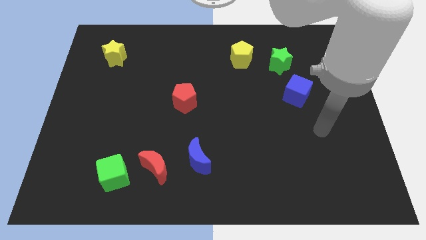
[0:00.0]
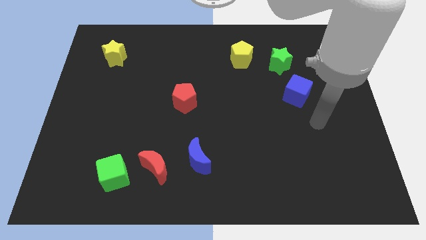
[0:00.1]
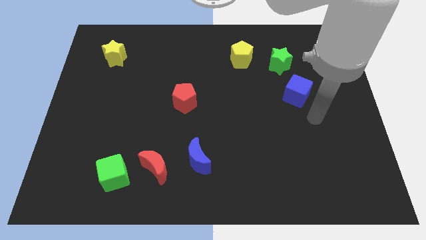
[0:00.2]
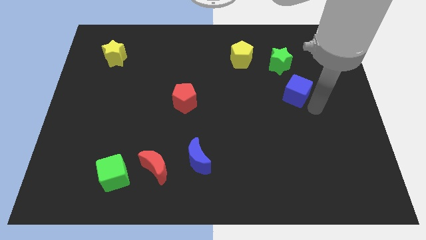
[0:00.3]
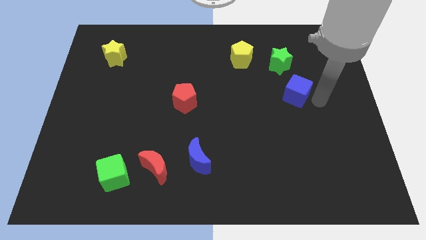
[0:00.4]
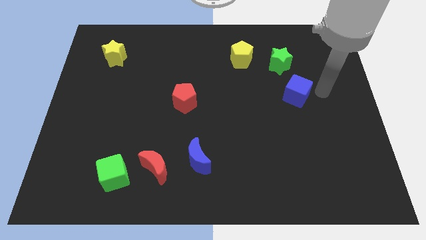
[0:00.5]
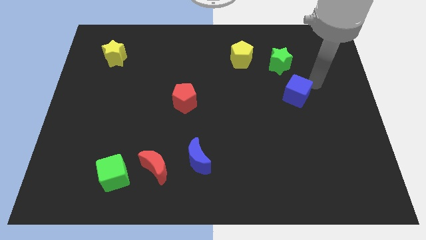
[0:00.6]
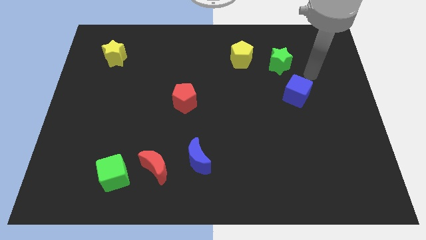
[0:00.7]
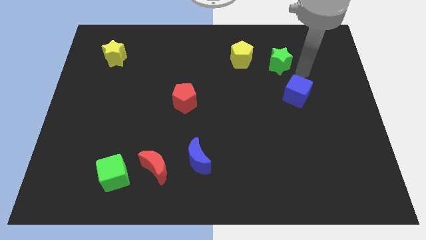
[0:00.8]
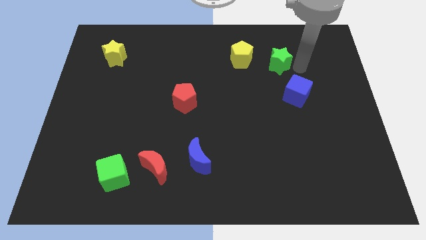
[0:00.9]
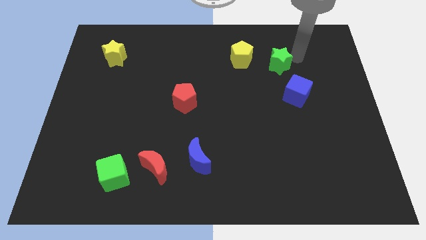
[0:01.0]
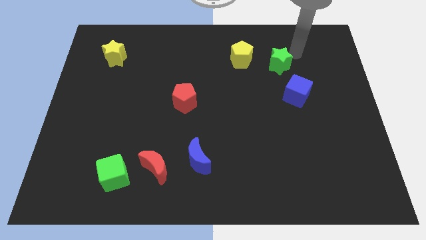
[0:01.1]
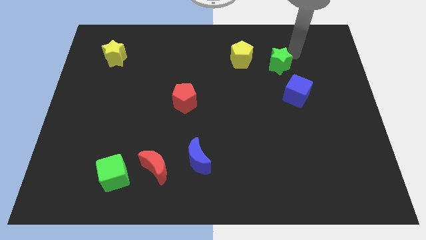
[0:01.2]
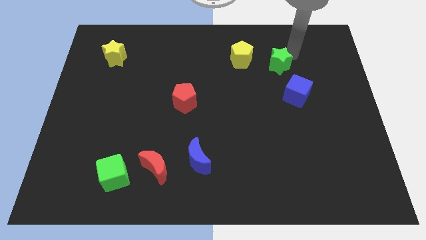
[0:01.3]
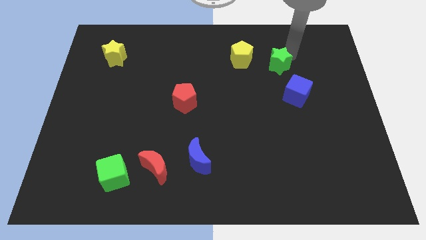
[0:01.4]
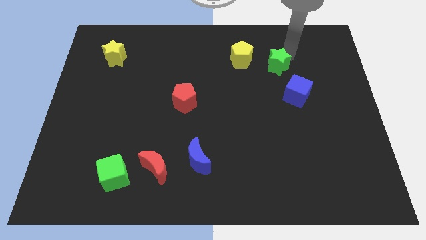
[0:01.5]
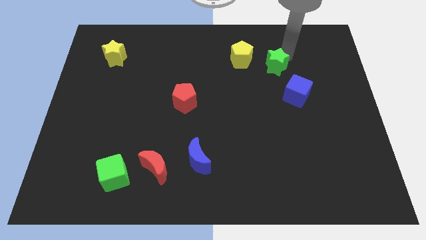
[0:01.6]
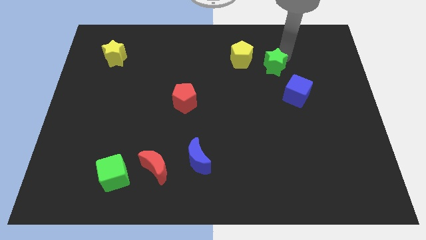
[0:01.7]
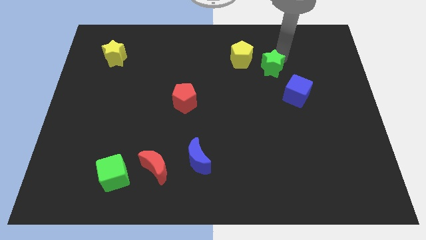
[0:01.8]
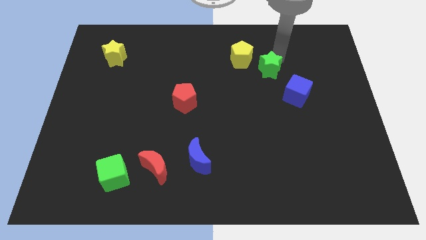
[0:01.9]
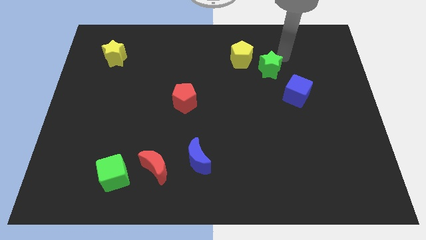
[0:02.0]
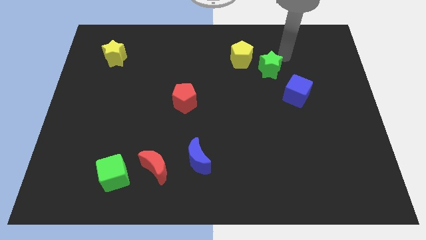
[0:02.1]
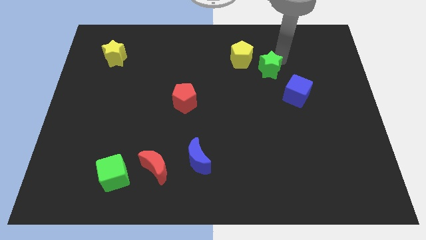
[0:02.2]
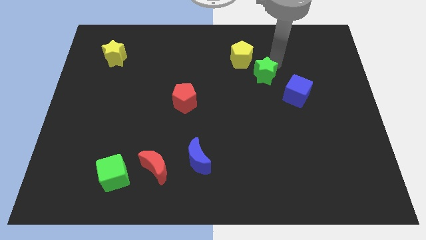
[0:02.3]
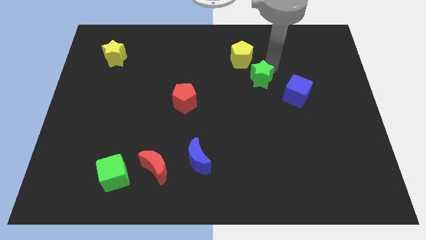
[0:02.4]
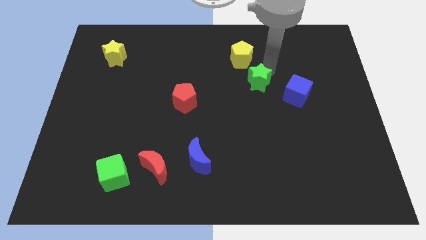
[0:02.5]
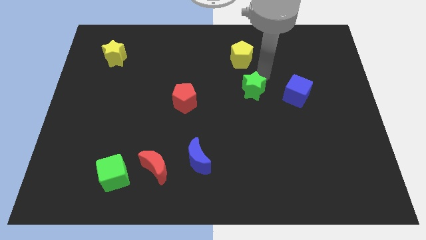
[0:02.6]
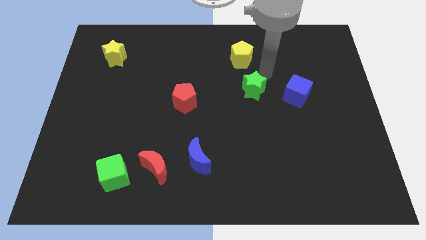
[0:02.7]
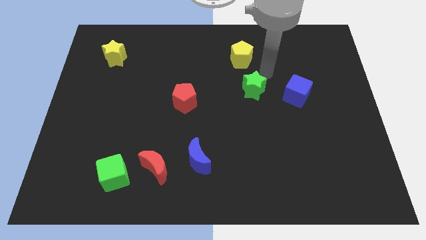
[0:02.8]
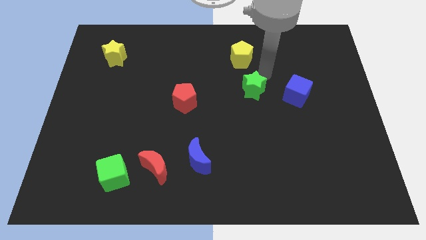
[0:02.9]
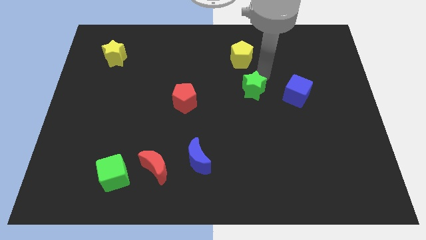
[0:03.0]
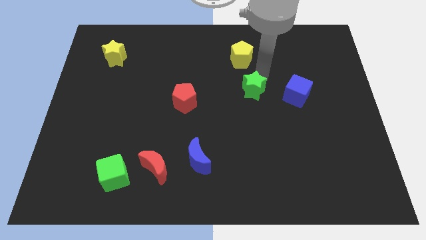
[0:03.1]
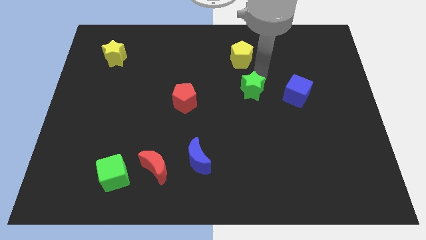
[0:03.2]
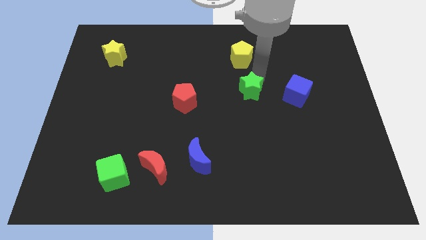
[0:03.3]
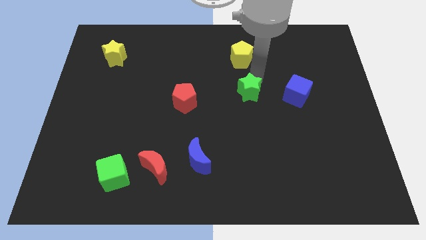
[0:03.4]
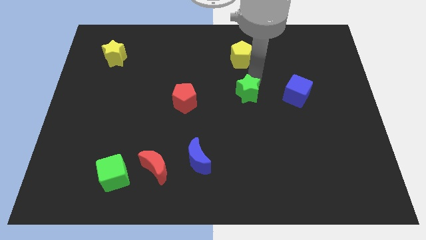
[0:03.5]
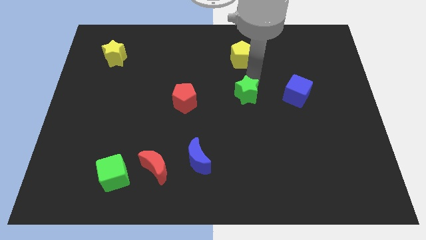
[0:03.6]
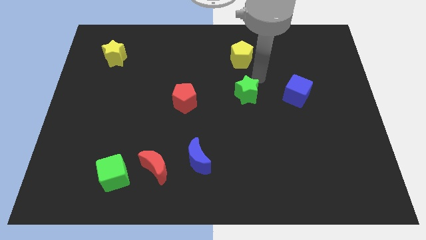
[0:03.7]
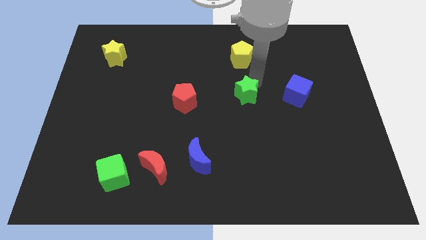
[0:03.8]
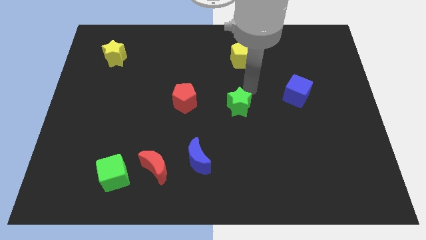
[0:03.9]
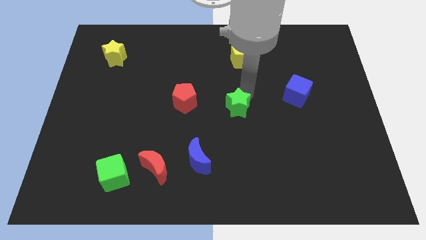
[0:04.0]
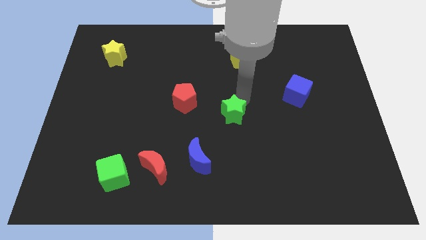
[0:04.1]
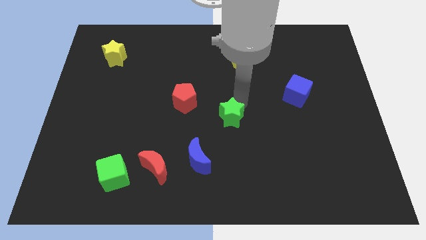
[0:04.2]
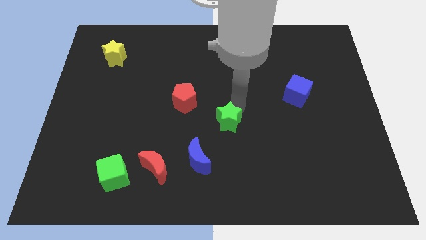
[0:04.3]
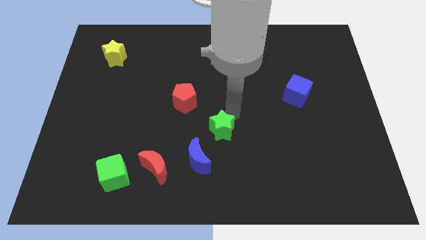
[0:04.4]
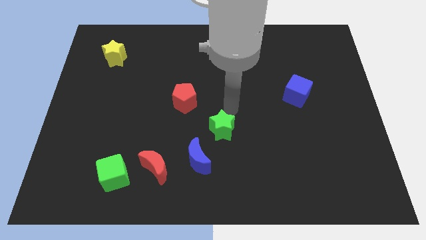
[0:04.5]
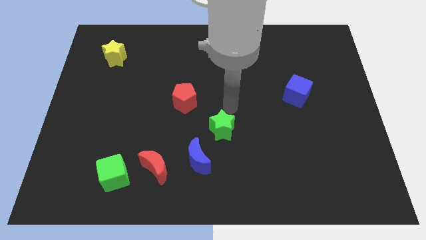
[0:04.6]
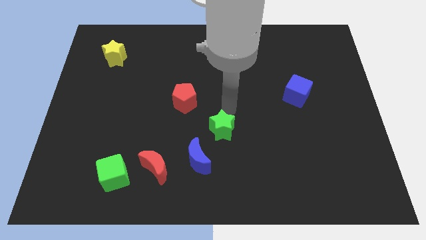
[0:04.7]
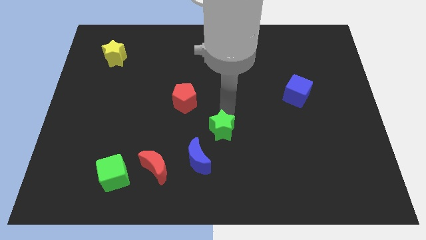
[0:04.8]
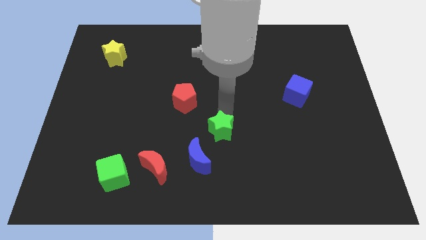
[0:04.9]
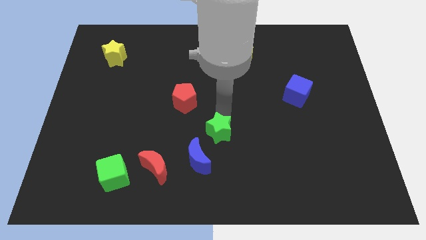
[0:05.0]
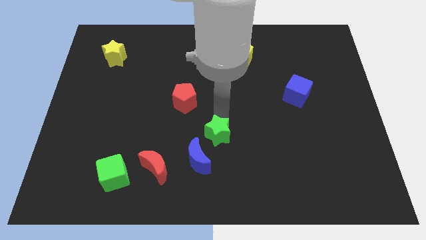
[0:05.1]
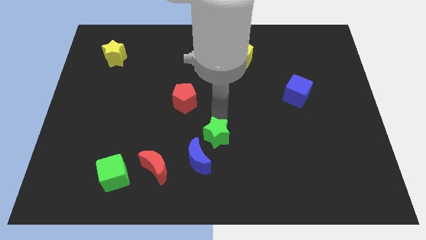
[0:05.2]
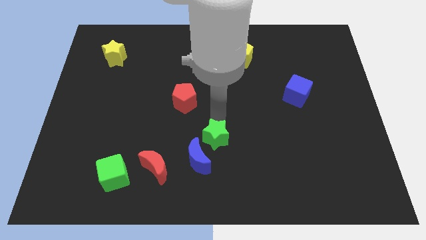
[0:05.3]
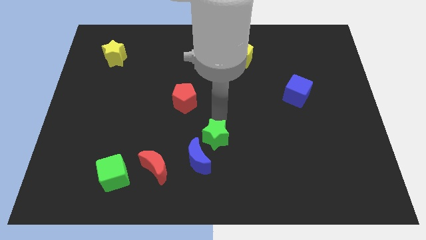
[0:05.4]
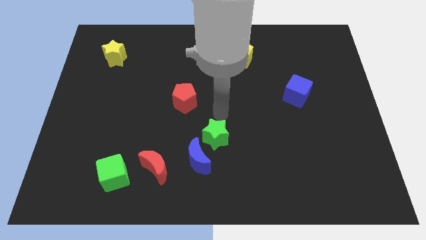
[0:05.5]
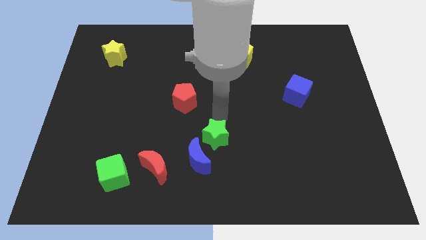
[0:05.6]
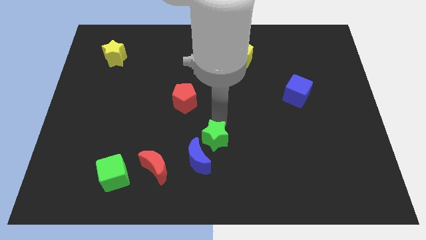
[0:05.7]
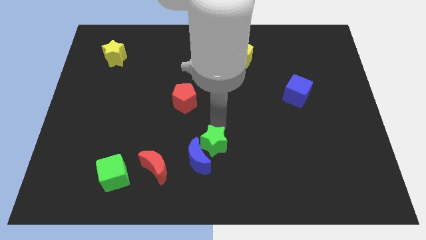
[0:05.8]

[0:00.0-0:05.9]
slide the green star next to the blue moon

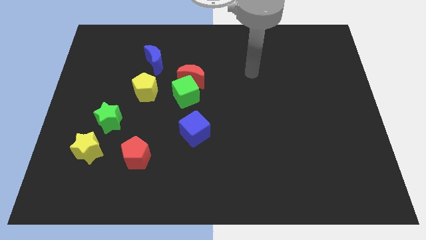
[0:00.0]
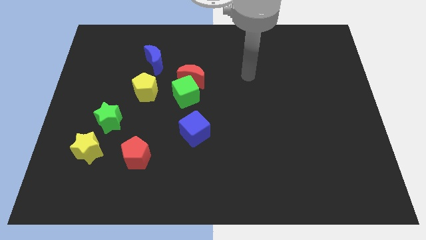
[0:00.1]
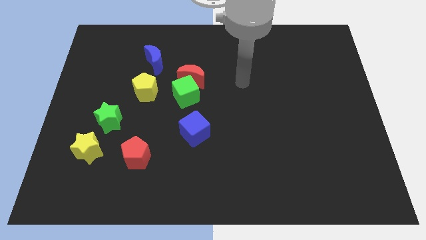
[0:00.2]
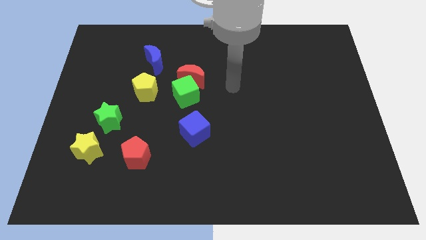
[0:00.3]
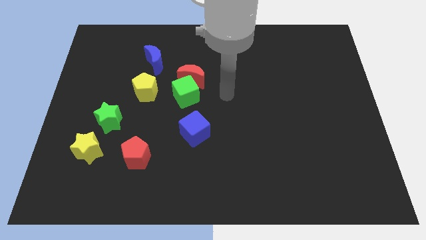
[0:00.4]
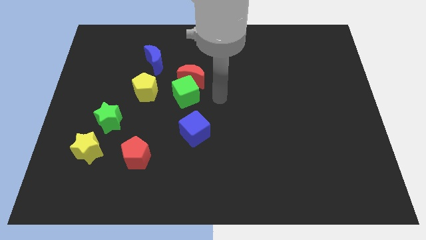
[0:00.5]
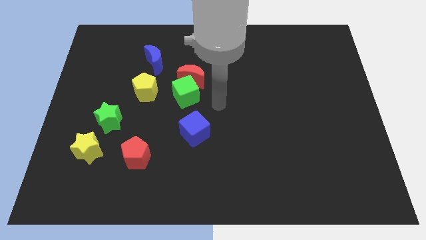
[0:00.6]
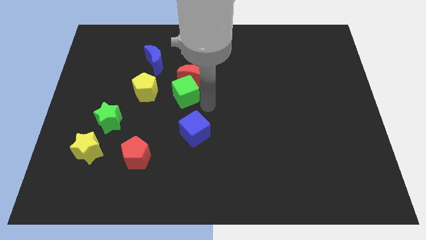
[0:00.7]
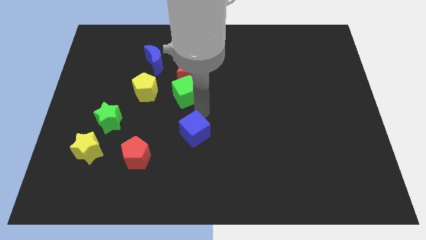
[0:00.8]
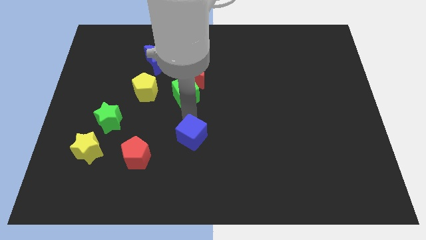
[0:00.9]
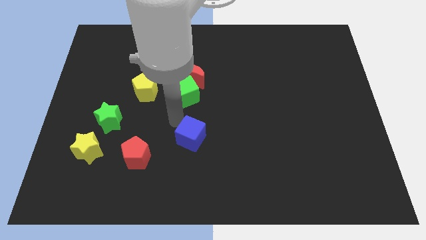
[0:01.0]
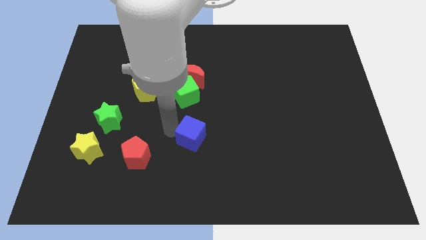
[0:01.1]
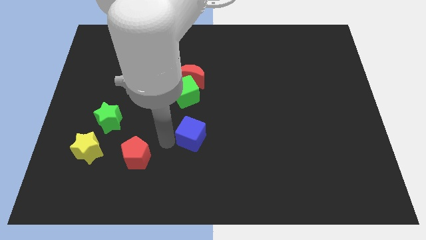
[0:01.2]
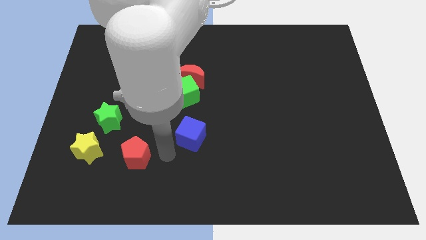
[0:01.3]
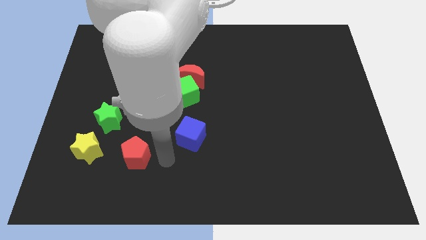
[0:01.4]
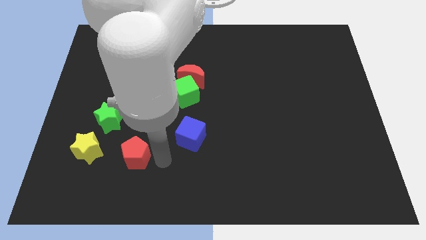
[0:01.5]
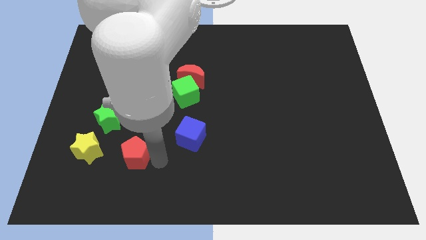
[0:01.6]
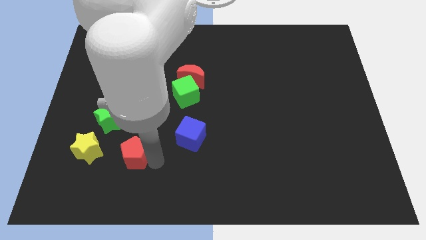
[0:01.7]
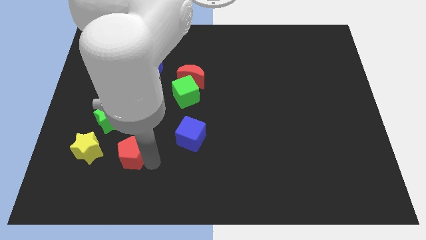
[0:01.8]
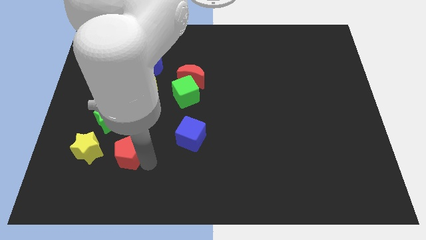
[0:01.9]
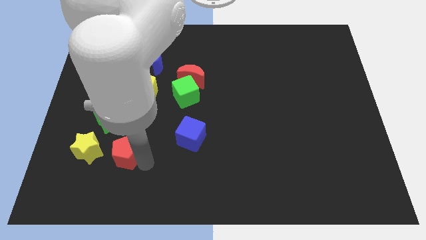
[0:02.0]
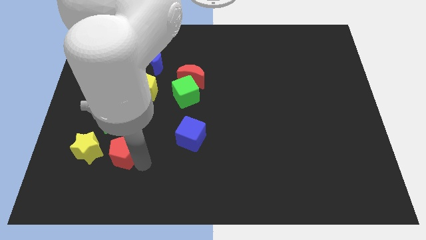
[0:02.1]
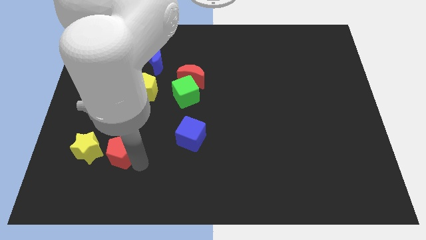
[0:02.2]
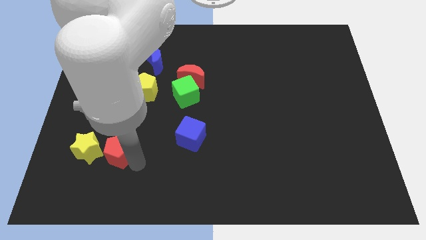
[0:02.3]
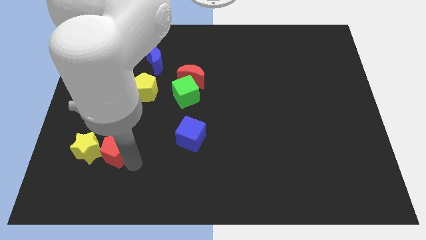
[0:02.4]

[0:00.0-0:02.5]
push the red pentagon next to the yellow star

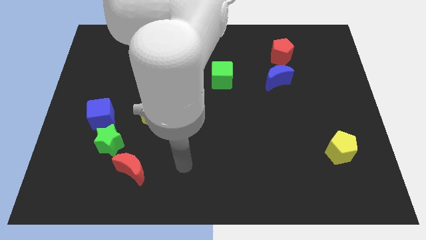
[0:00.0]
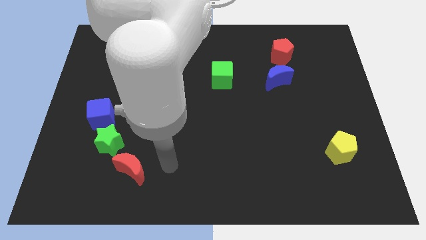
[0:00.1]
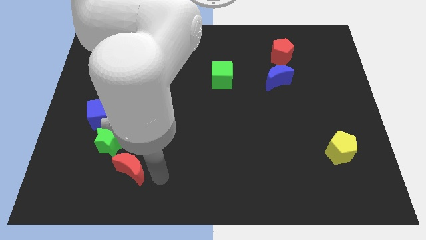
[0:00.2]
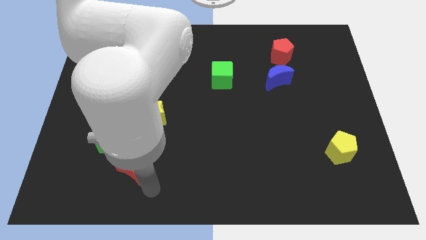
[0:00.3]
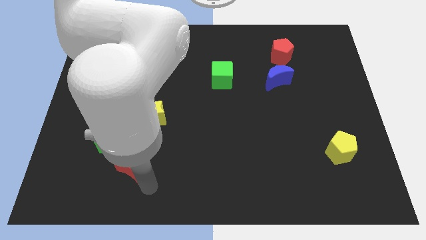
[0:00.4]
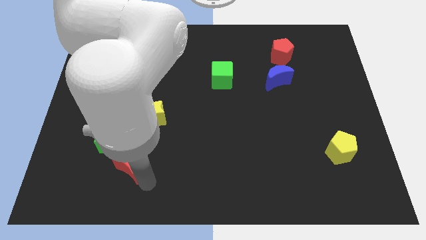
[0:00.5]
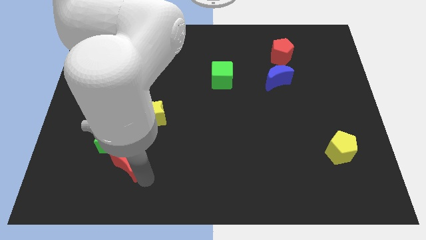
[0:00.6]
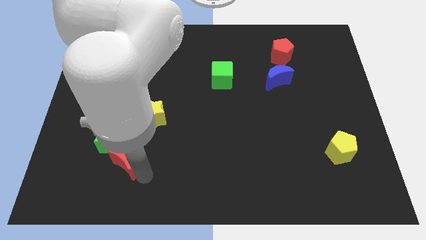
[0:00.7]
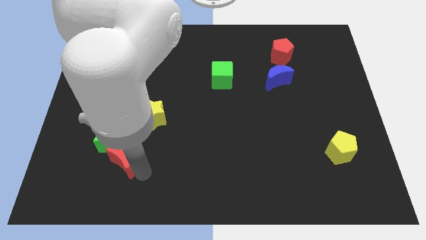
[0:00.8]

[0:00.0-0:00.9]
push the red moon to the green star
